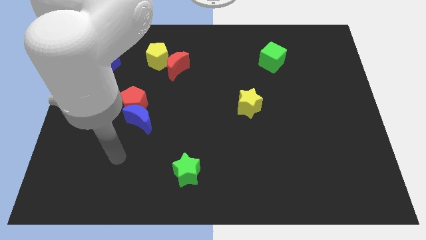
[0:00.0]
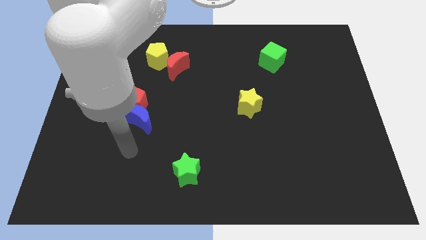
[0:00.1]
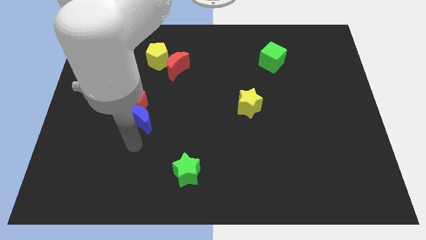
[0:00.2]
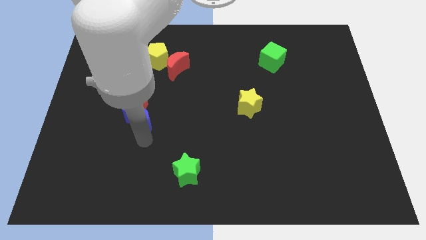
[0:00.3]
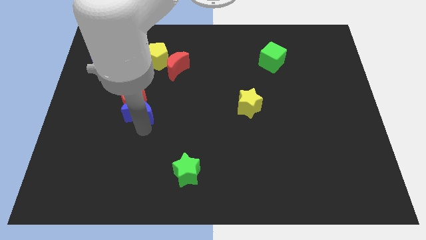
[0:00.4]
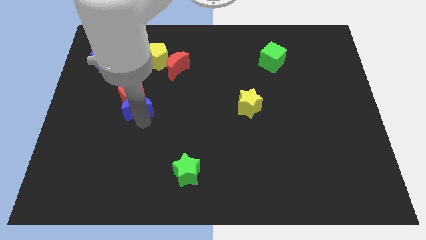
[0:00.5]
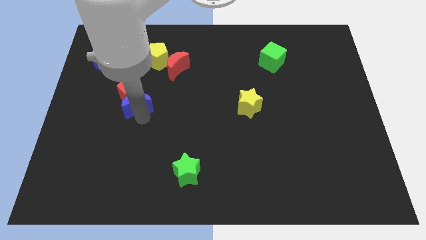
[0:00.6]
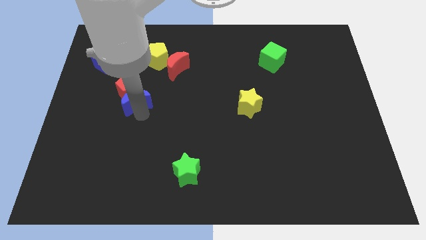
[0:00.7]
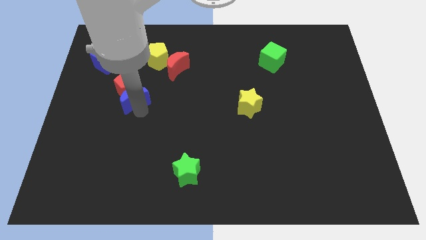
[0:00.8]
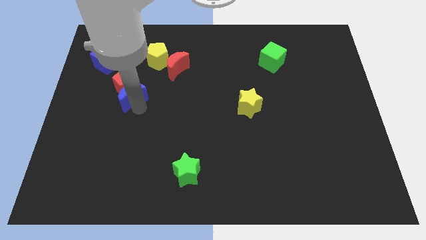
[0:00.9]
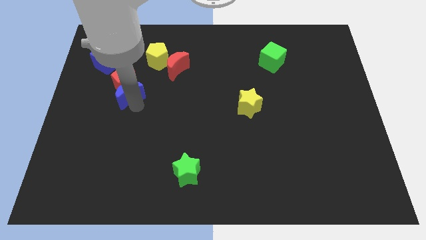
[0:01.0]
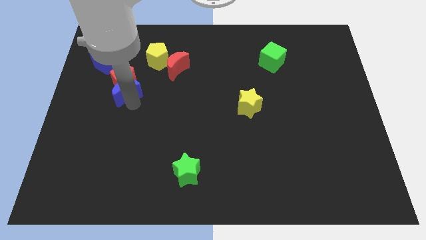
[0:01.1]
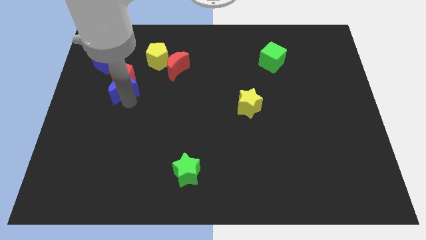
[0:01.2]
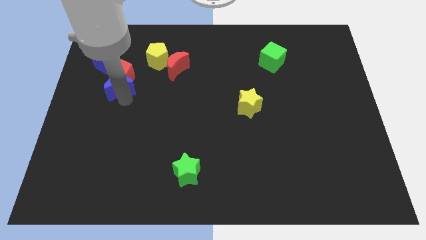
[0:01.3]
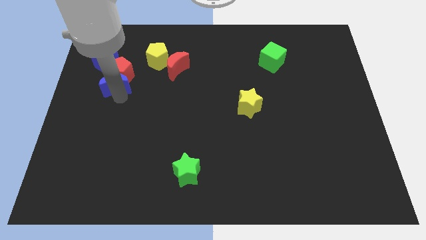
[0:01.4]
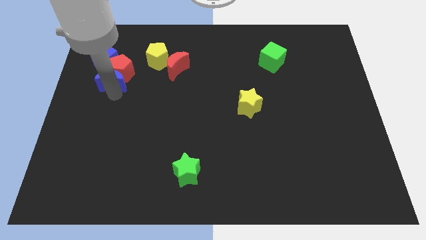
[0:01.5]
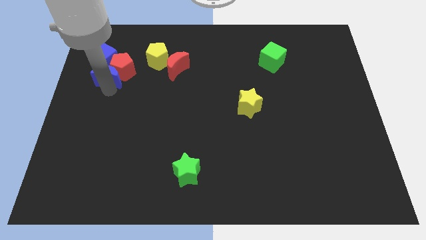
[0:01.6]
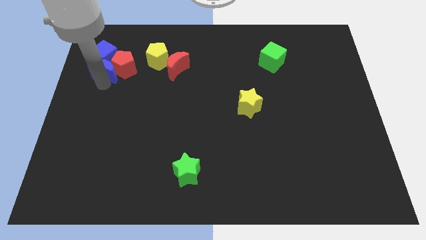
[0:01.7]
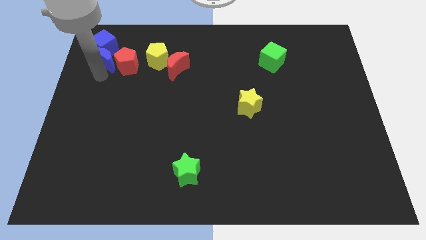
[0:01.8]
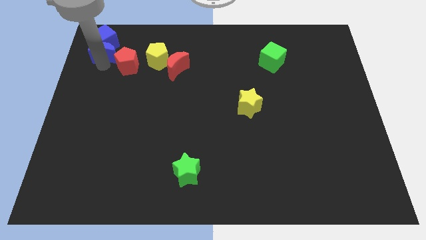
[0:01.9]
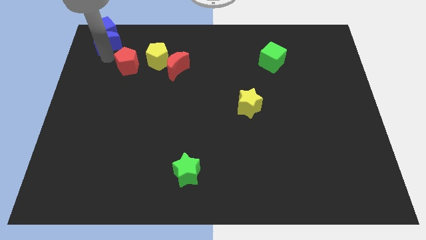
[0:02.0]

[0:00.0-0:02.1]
pull the red pentagon apart from the blue moon

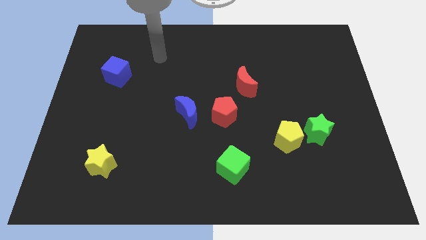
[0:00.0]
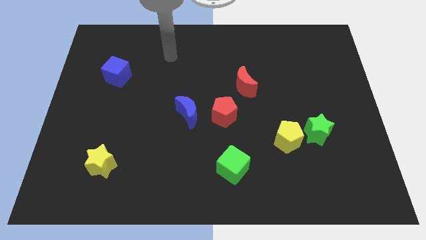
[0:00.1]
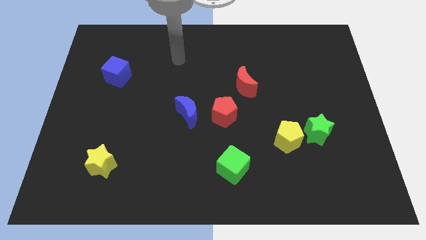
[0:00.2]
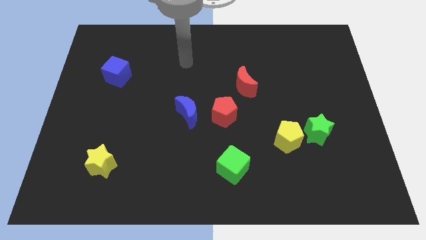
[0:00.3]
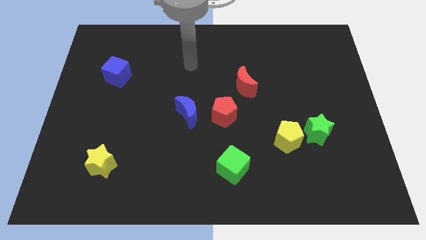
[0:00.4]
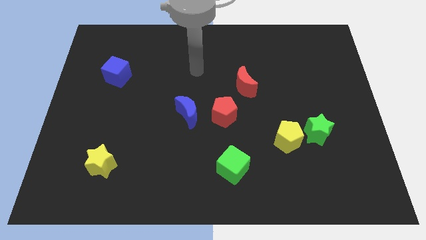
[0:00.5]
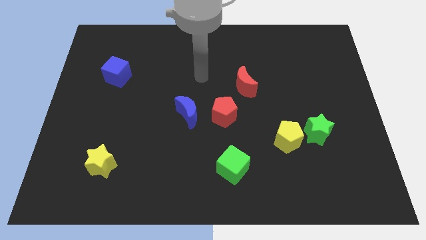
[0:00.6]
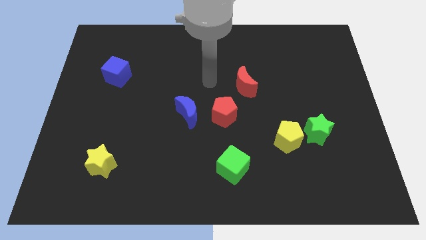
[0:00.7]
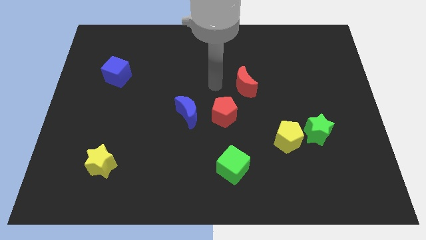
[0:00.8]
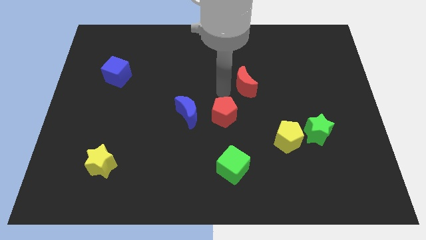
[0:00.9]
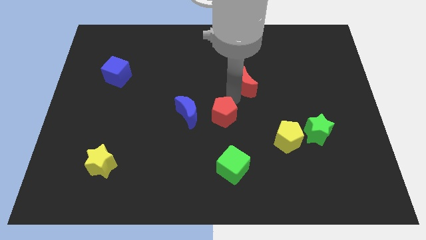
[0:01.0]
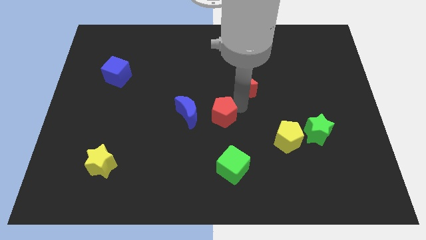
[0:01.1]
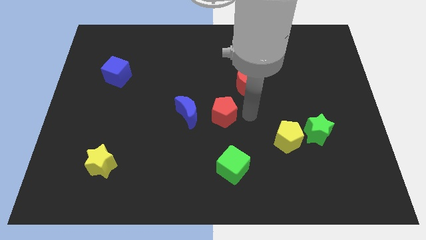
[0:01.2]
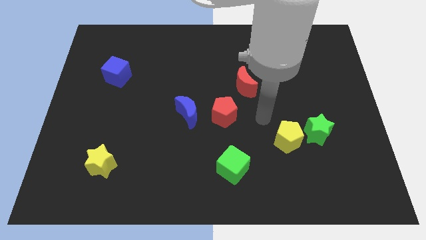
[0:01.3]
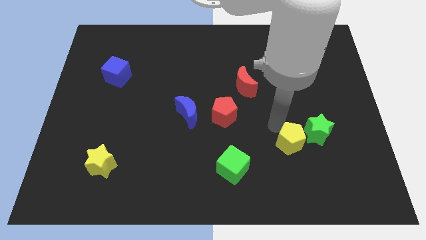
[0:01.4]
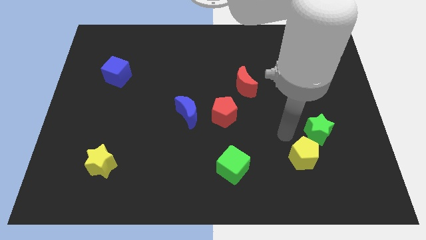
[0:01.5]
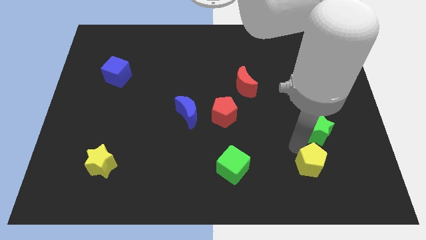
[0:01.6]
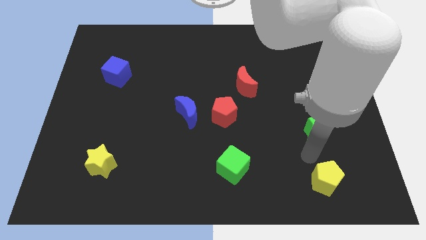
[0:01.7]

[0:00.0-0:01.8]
separate the green star from the yellow pentagon

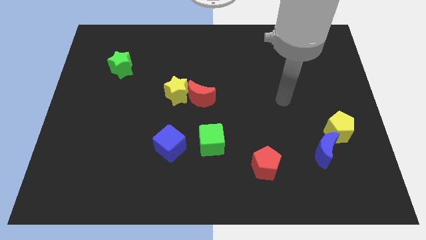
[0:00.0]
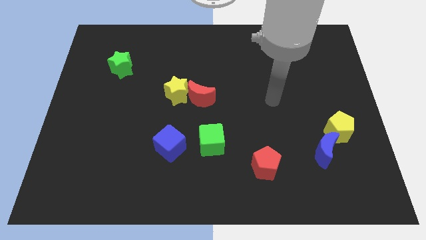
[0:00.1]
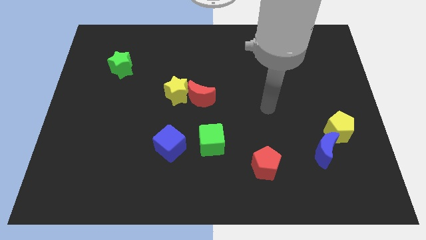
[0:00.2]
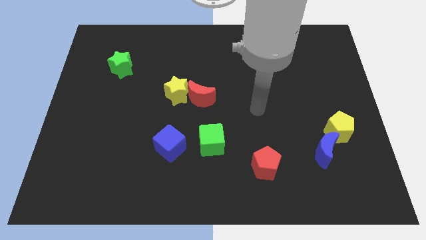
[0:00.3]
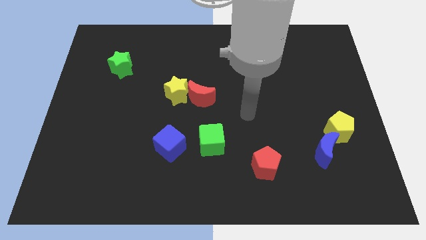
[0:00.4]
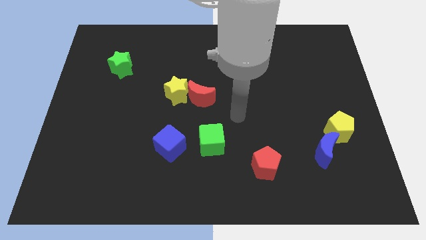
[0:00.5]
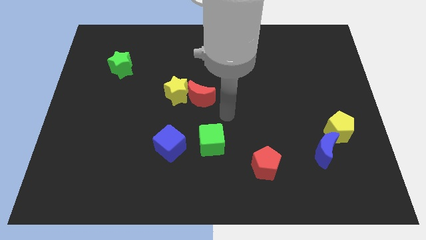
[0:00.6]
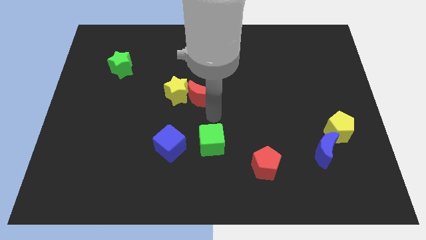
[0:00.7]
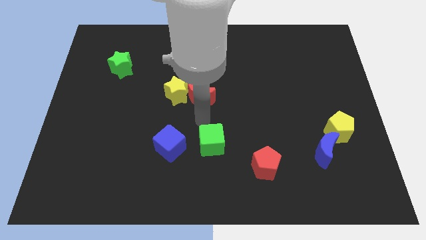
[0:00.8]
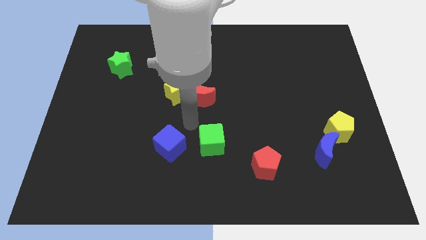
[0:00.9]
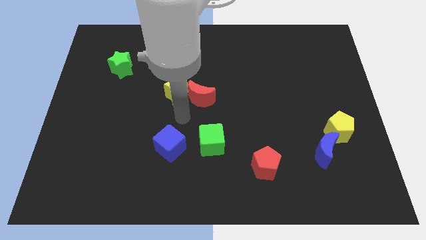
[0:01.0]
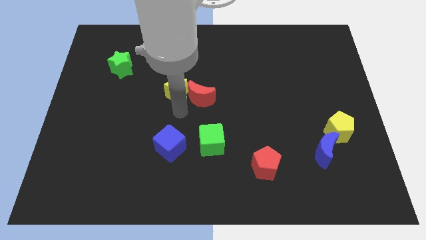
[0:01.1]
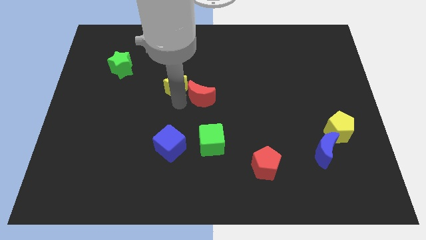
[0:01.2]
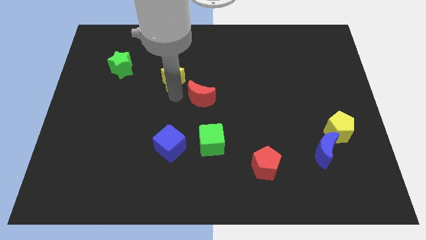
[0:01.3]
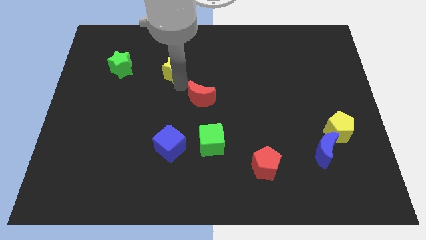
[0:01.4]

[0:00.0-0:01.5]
pull the red moon apart from the yellow star

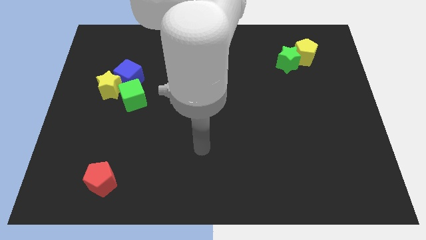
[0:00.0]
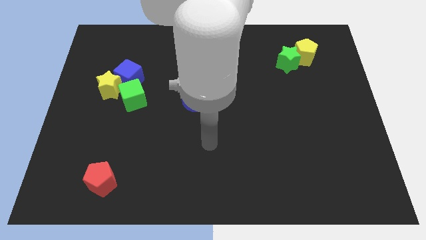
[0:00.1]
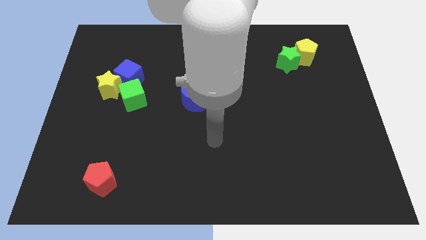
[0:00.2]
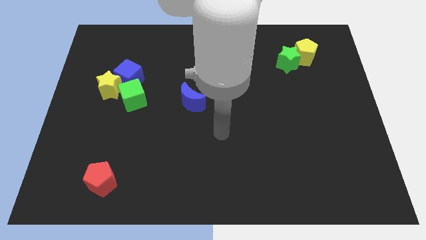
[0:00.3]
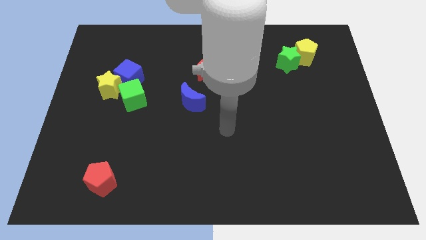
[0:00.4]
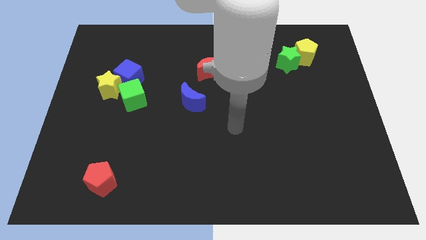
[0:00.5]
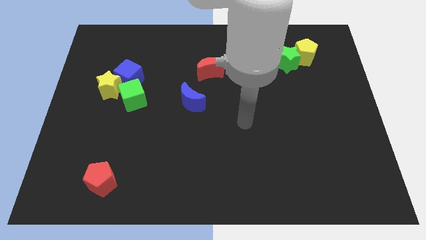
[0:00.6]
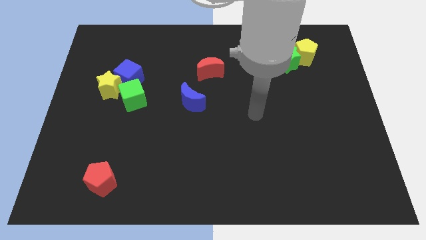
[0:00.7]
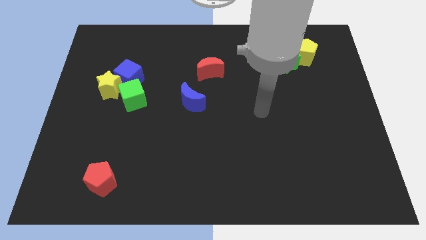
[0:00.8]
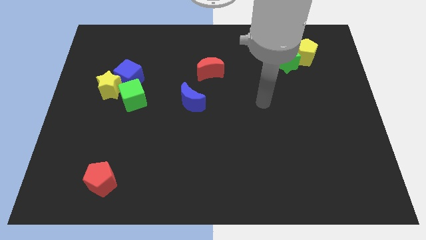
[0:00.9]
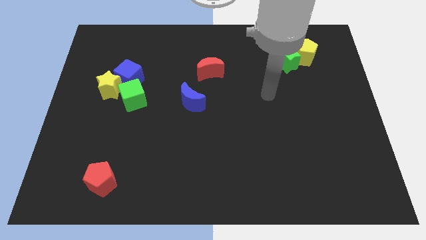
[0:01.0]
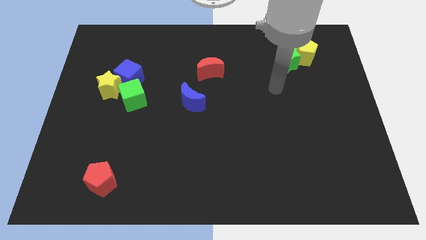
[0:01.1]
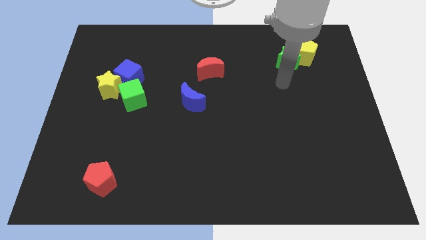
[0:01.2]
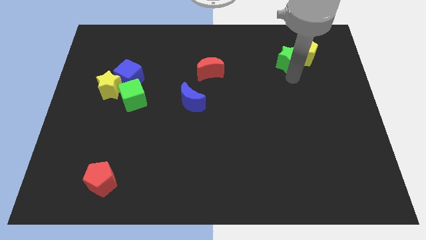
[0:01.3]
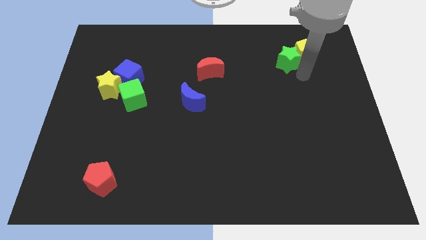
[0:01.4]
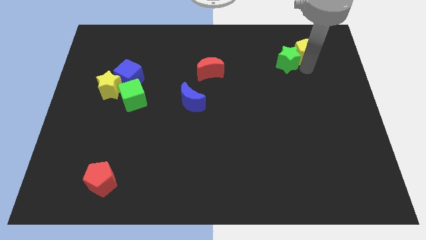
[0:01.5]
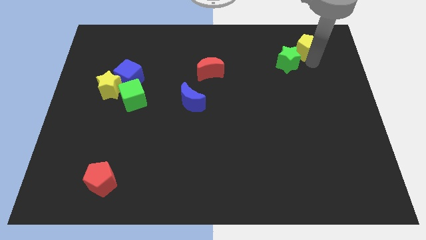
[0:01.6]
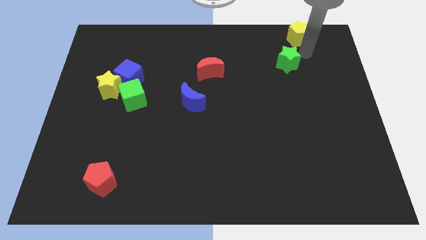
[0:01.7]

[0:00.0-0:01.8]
move the green star away from the yellow pentagon

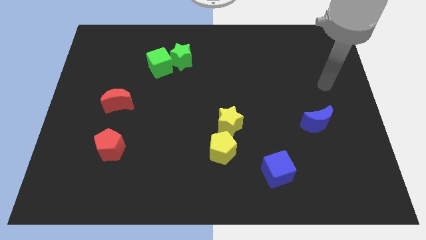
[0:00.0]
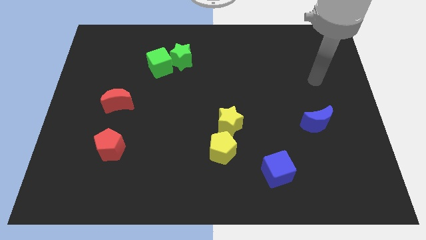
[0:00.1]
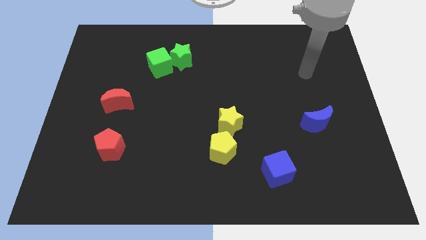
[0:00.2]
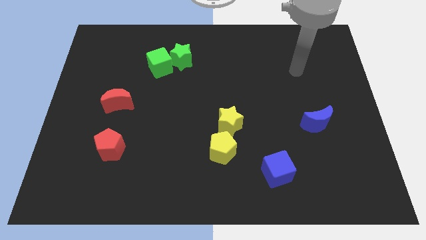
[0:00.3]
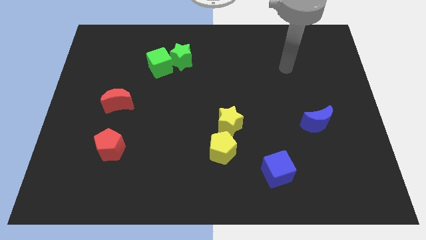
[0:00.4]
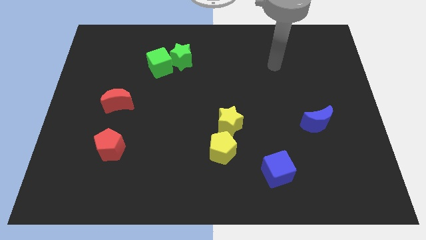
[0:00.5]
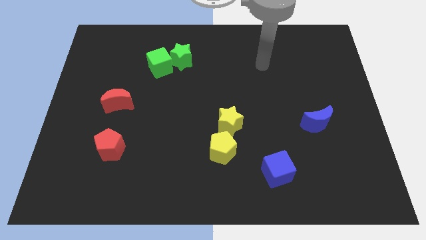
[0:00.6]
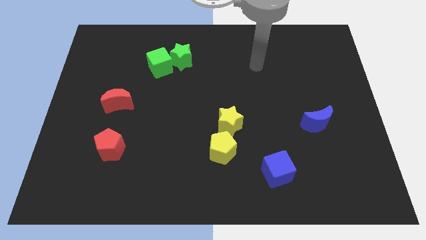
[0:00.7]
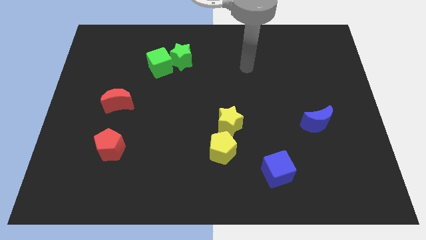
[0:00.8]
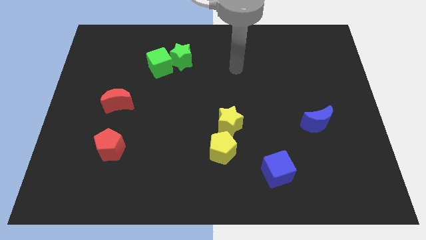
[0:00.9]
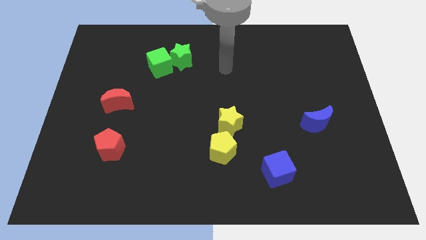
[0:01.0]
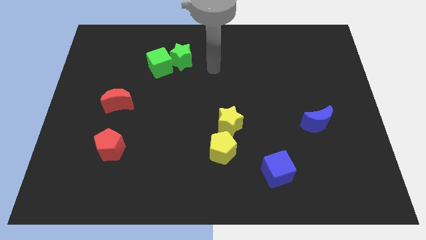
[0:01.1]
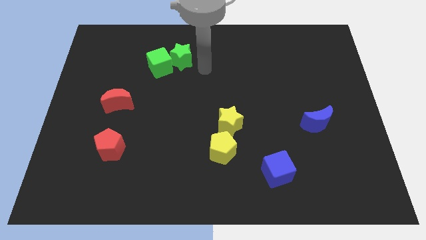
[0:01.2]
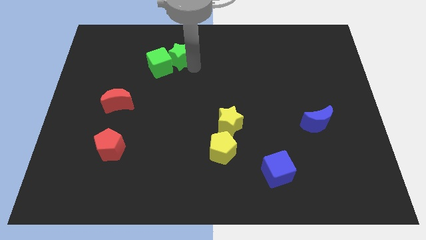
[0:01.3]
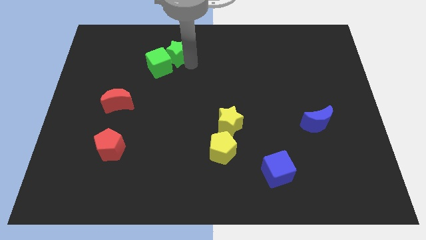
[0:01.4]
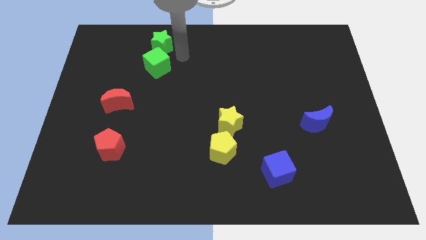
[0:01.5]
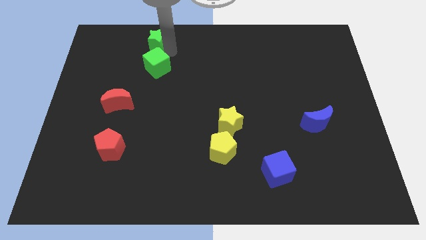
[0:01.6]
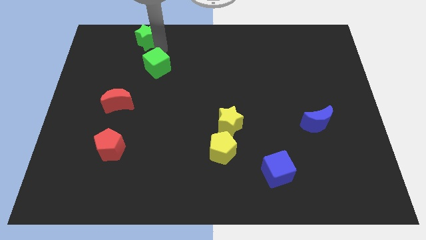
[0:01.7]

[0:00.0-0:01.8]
pull the green cube apart from the green star

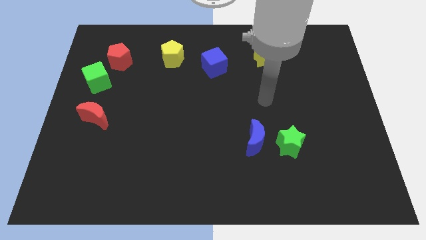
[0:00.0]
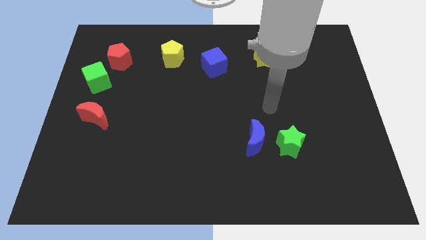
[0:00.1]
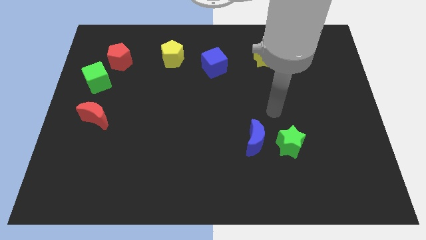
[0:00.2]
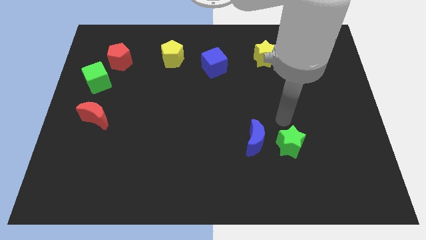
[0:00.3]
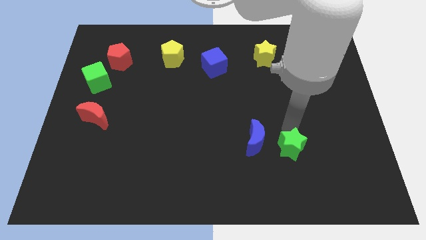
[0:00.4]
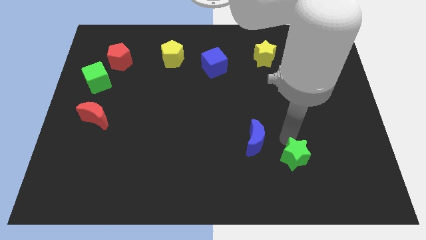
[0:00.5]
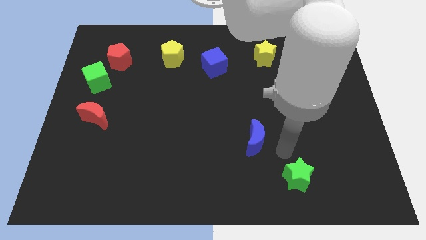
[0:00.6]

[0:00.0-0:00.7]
pull the blue moon apart from the green star
